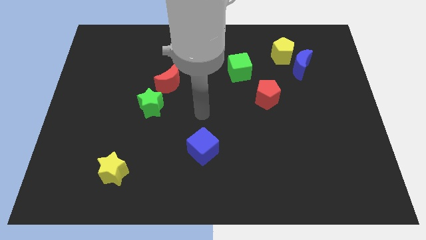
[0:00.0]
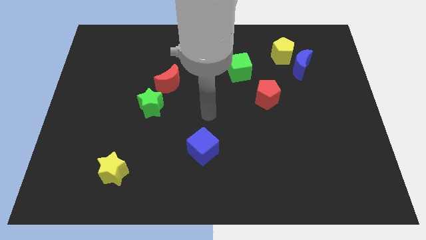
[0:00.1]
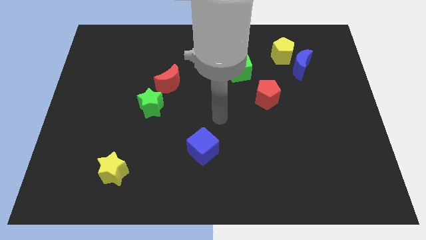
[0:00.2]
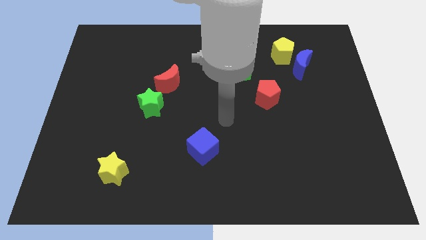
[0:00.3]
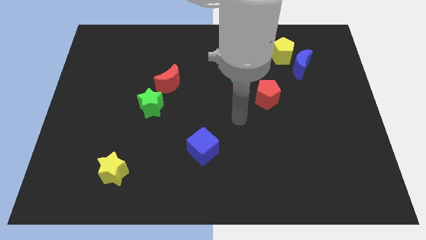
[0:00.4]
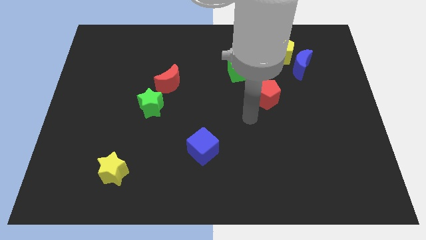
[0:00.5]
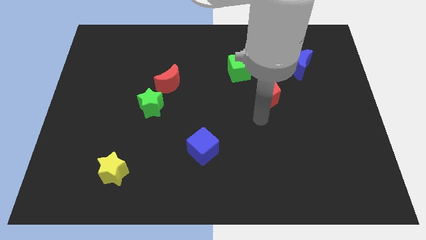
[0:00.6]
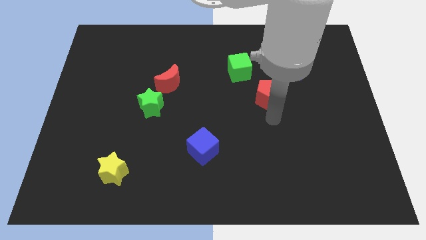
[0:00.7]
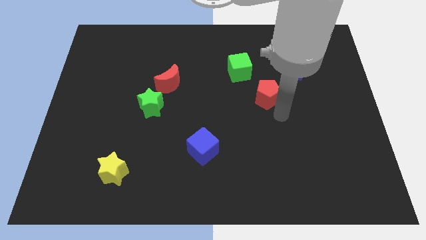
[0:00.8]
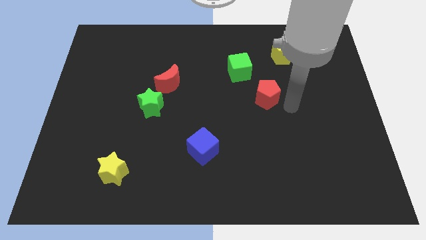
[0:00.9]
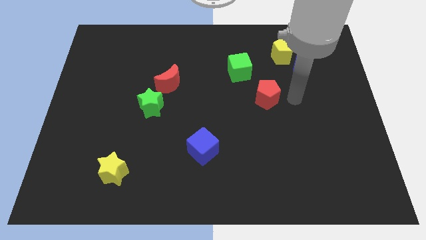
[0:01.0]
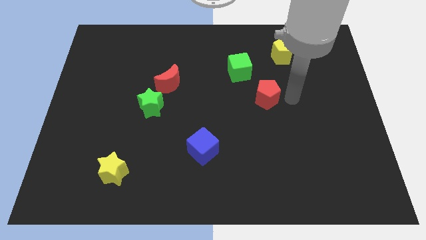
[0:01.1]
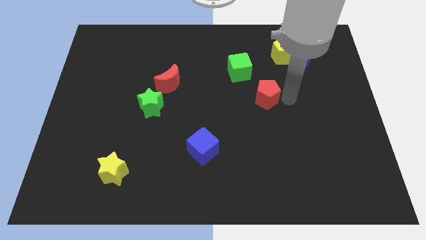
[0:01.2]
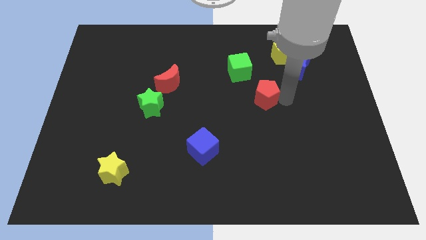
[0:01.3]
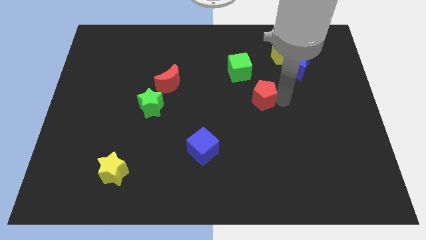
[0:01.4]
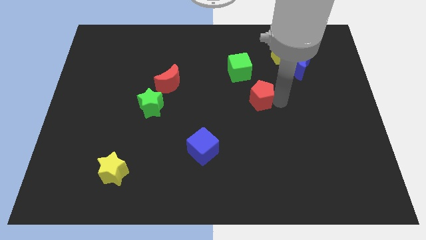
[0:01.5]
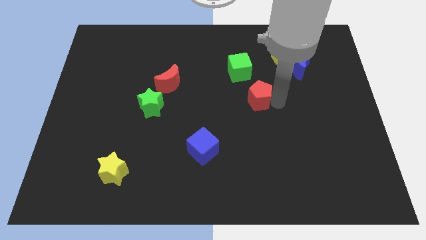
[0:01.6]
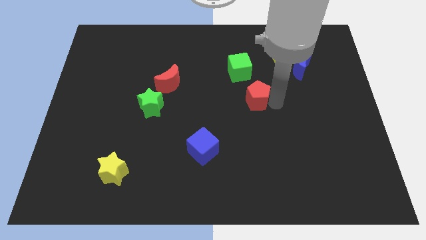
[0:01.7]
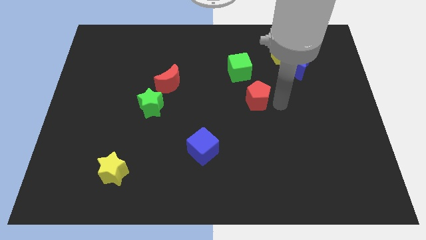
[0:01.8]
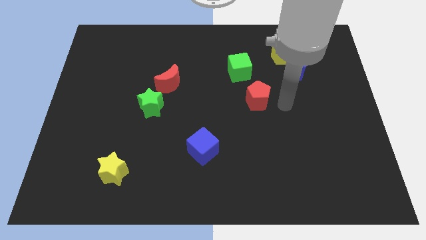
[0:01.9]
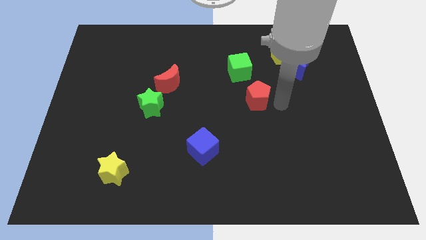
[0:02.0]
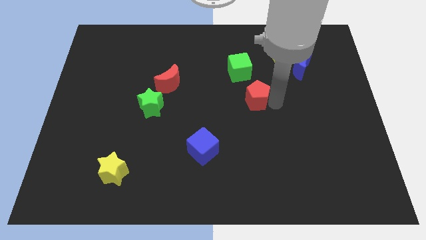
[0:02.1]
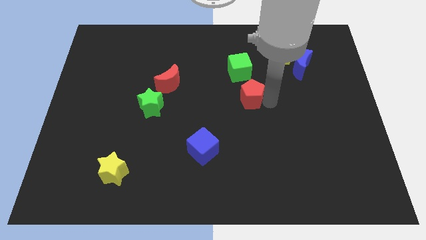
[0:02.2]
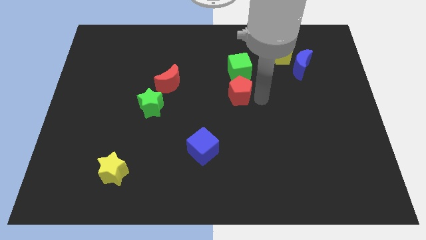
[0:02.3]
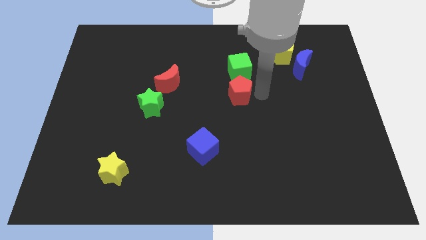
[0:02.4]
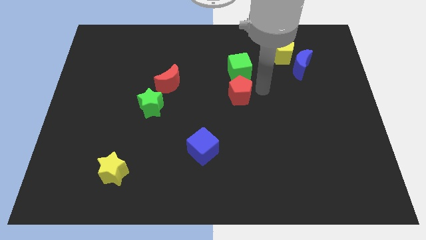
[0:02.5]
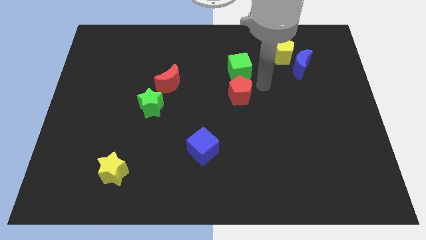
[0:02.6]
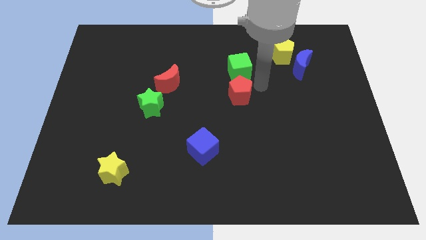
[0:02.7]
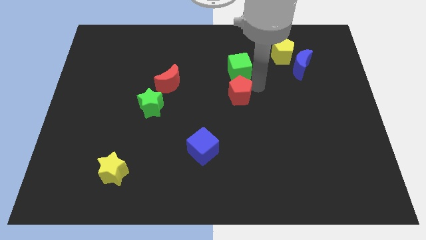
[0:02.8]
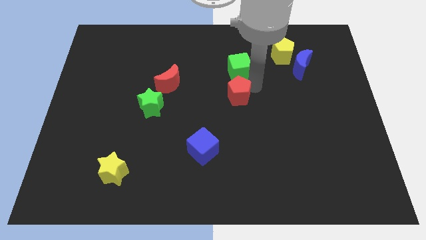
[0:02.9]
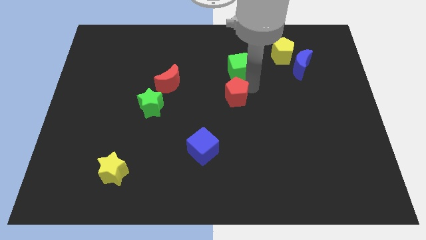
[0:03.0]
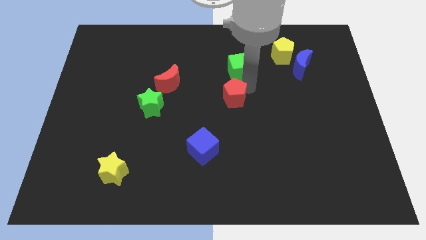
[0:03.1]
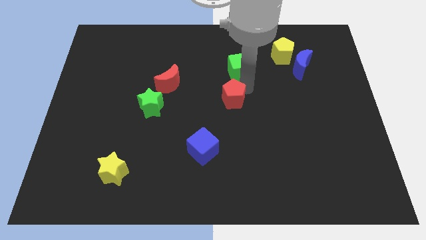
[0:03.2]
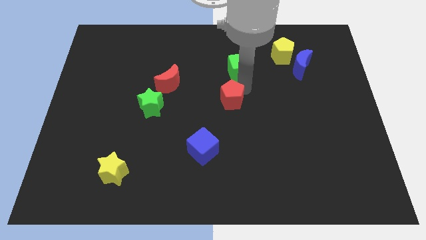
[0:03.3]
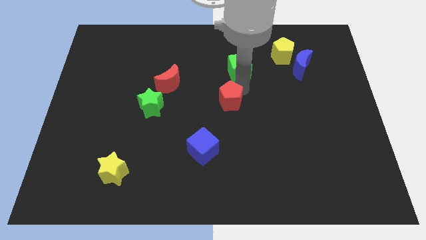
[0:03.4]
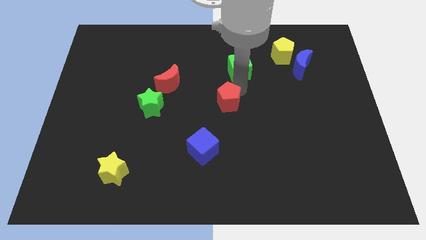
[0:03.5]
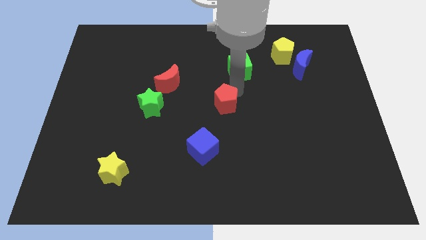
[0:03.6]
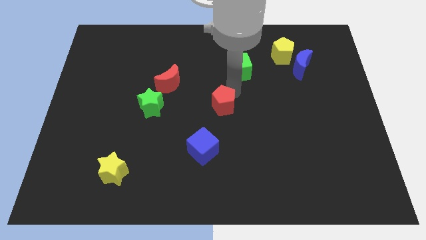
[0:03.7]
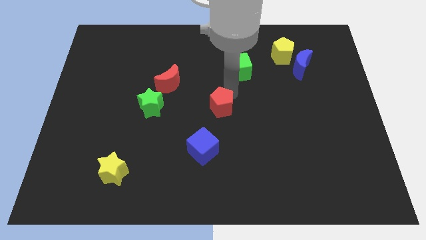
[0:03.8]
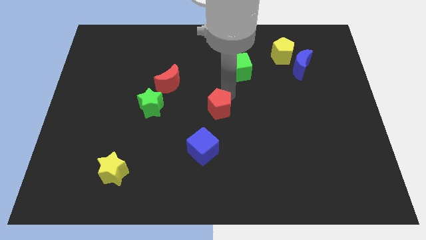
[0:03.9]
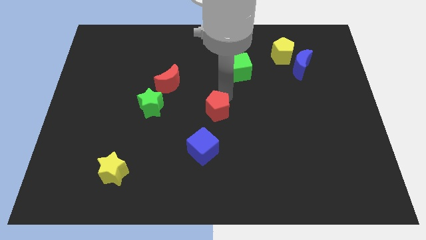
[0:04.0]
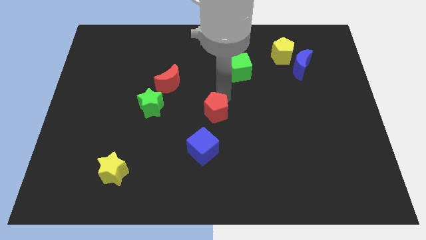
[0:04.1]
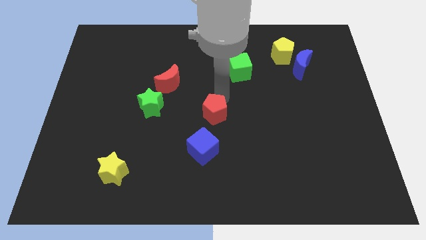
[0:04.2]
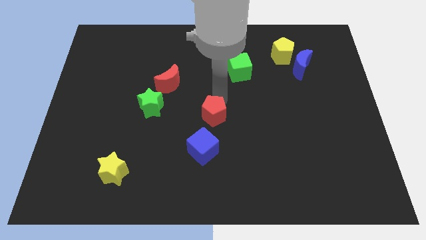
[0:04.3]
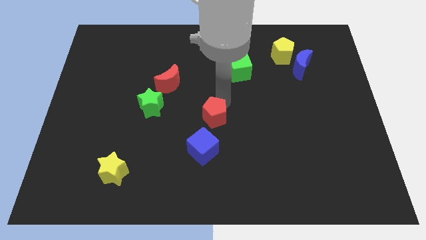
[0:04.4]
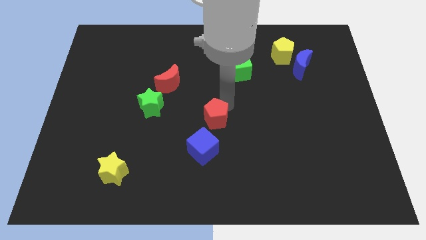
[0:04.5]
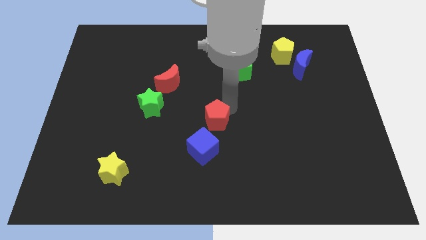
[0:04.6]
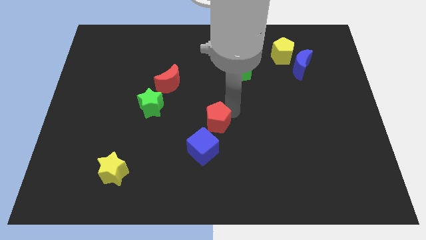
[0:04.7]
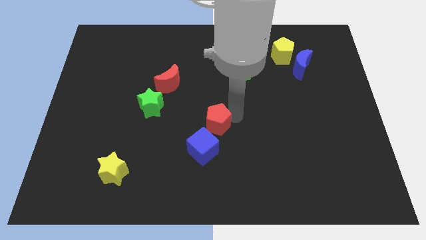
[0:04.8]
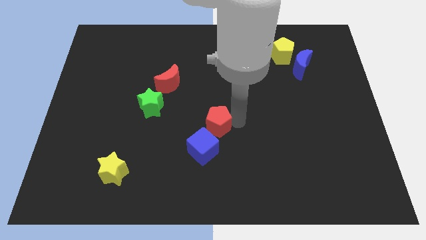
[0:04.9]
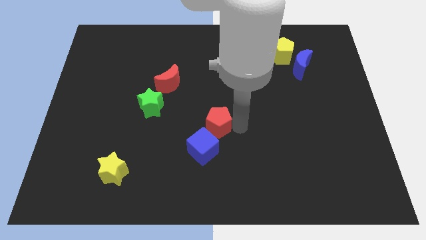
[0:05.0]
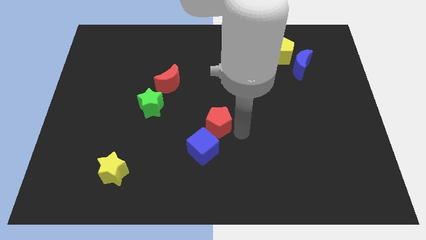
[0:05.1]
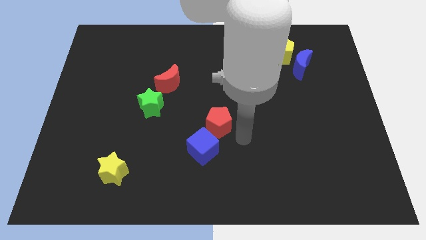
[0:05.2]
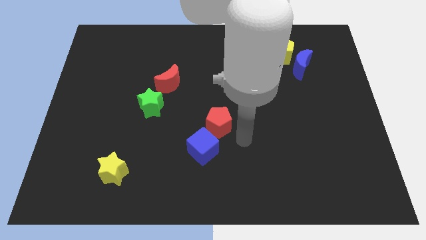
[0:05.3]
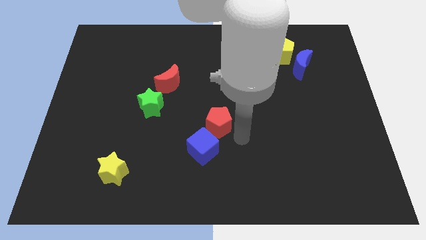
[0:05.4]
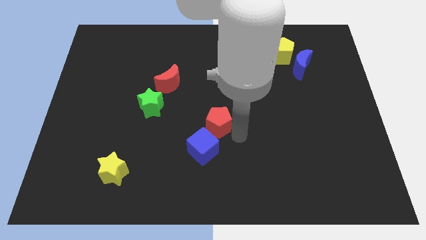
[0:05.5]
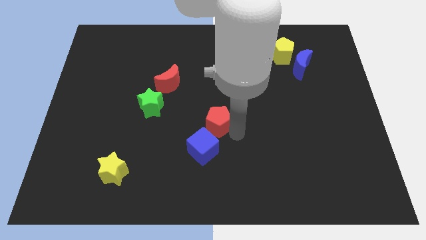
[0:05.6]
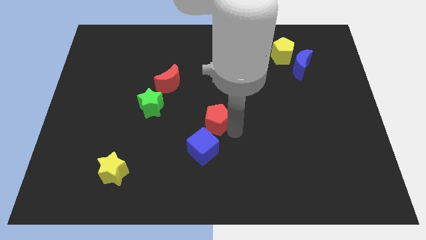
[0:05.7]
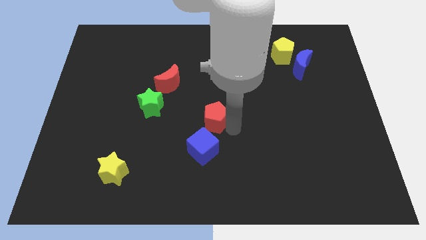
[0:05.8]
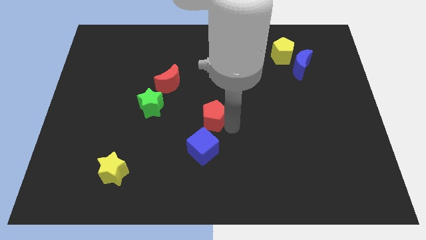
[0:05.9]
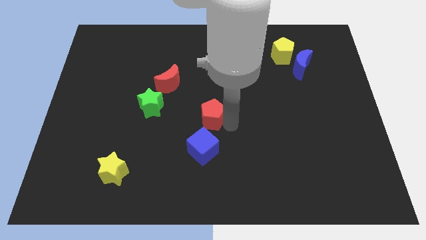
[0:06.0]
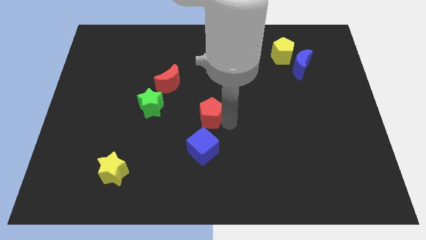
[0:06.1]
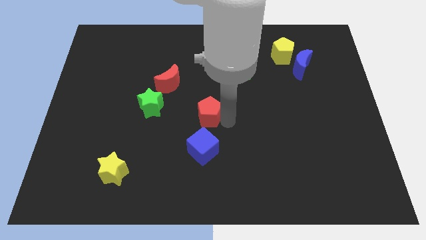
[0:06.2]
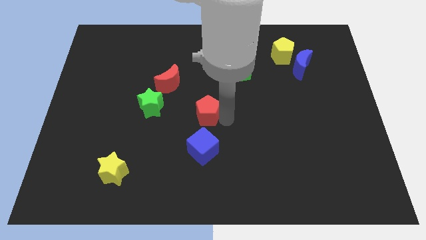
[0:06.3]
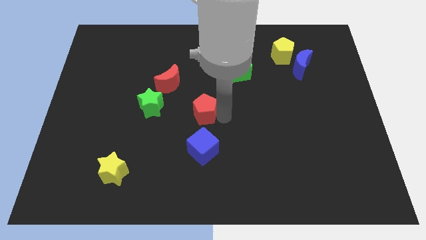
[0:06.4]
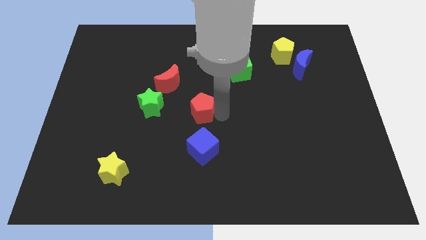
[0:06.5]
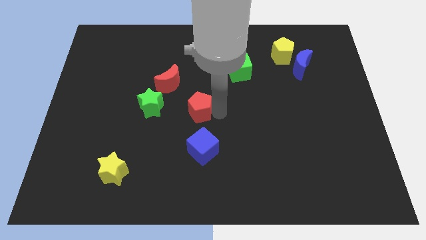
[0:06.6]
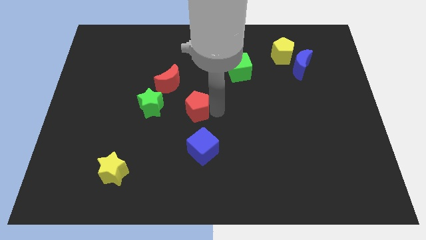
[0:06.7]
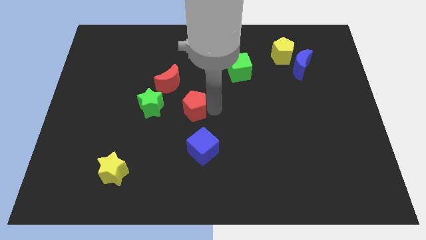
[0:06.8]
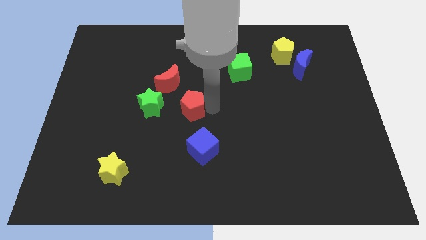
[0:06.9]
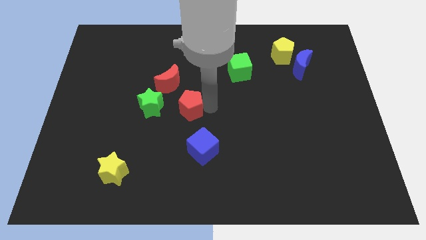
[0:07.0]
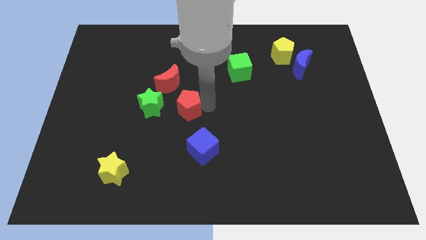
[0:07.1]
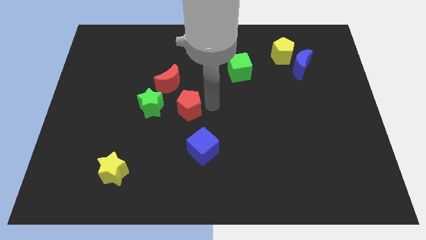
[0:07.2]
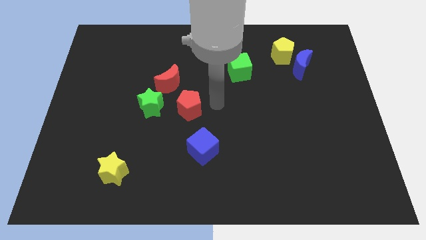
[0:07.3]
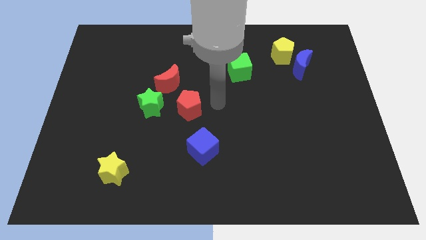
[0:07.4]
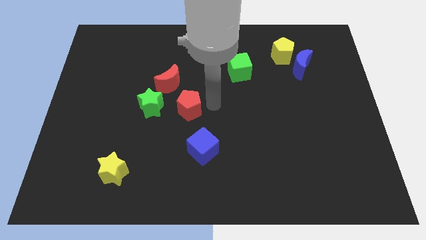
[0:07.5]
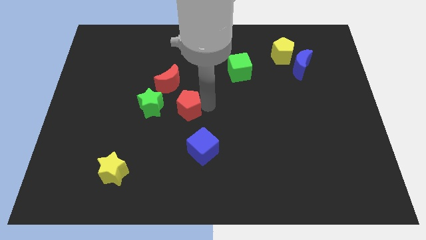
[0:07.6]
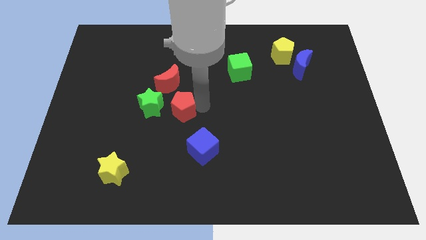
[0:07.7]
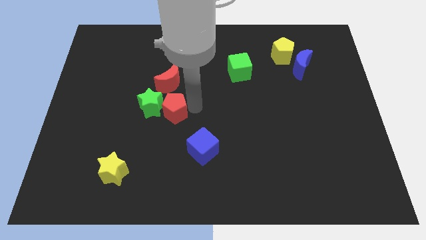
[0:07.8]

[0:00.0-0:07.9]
push the red pentagon to the left
